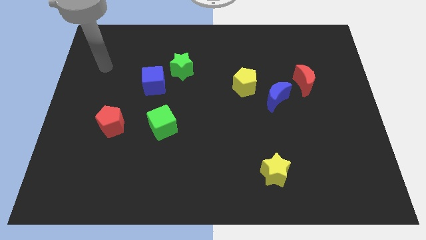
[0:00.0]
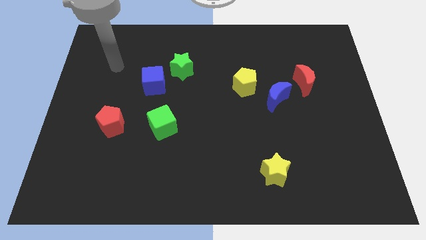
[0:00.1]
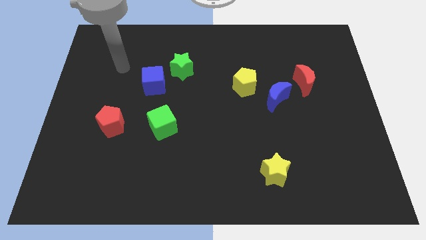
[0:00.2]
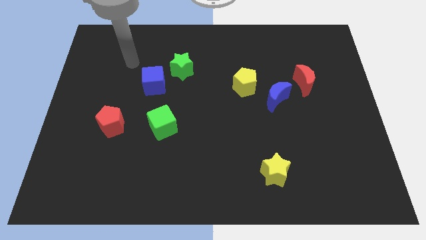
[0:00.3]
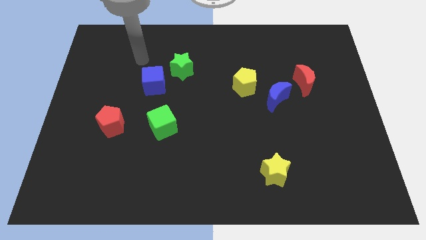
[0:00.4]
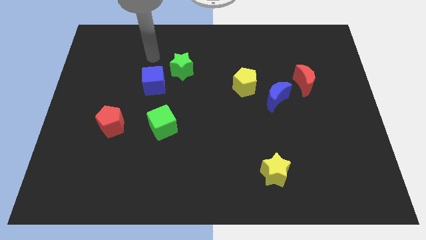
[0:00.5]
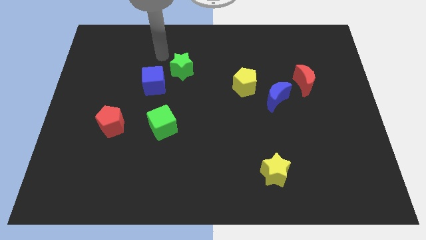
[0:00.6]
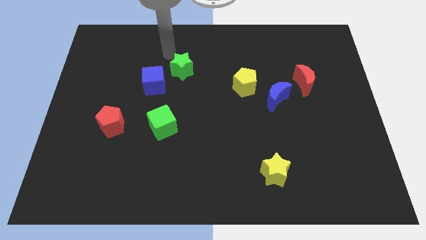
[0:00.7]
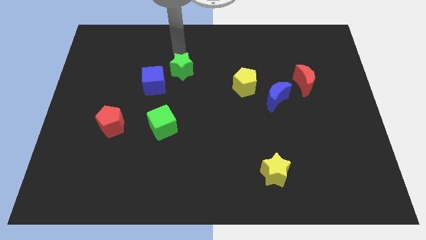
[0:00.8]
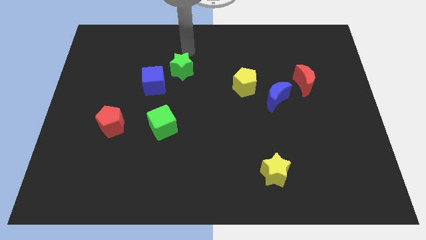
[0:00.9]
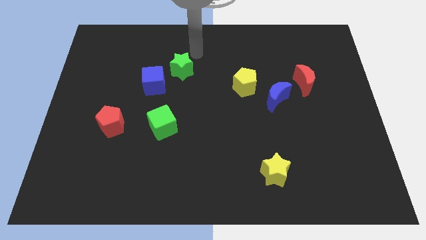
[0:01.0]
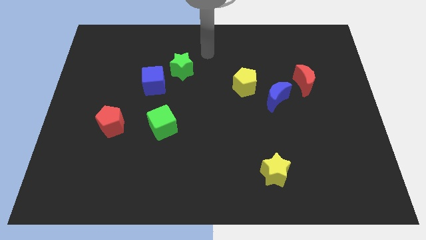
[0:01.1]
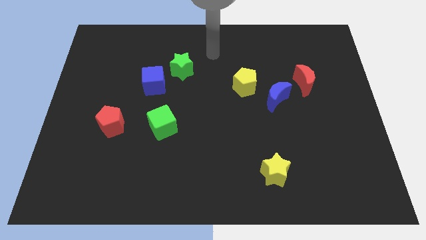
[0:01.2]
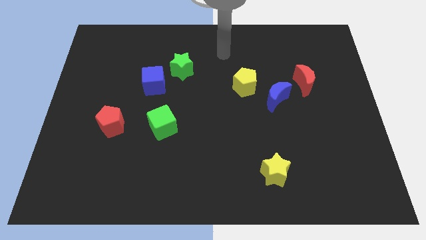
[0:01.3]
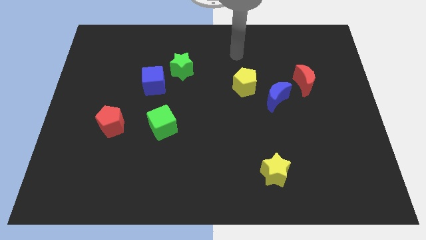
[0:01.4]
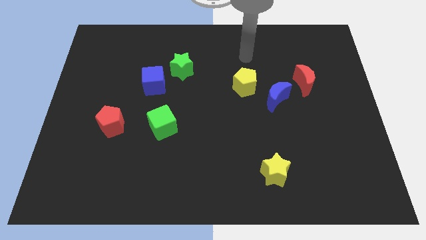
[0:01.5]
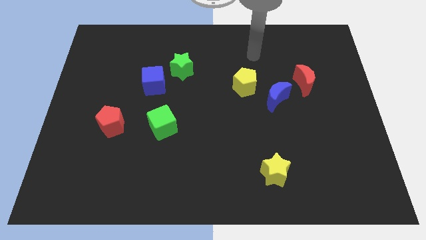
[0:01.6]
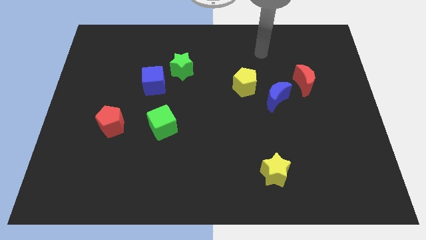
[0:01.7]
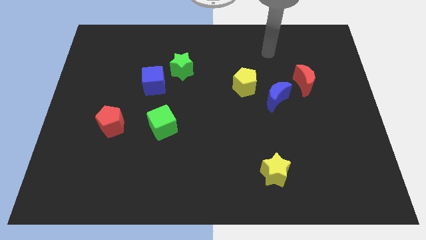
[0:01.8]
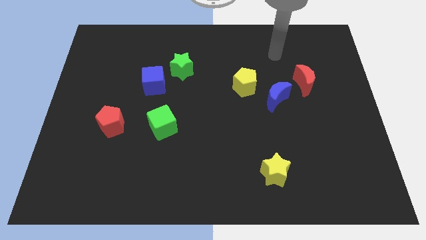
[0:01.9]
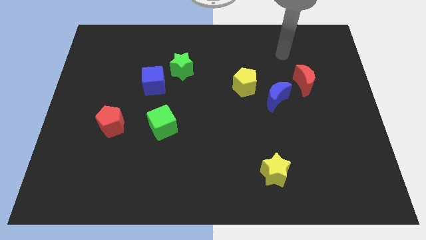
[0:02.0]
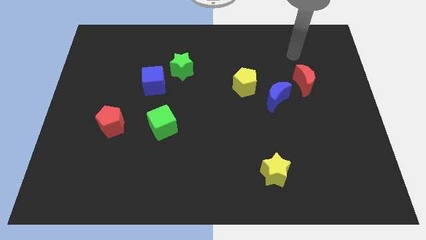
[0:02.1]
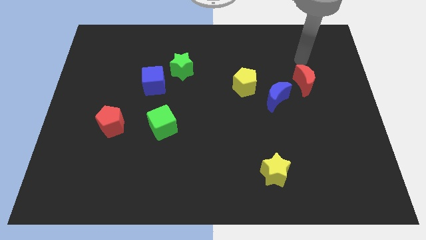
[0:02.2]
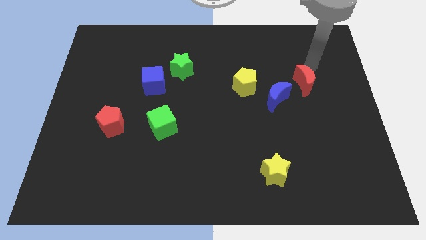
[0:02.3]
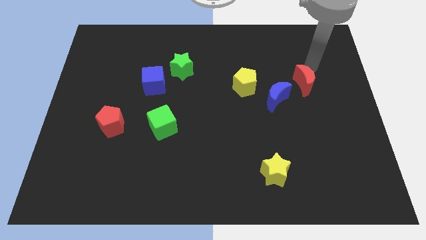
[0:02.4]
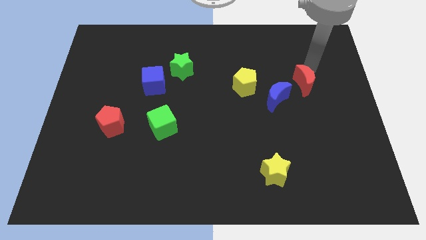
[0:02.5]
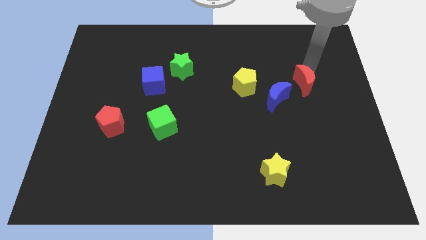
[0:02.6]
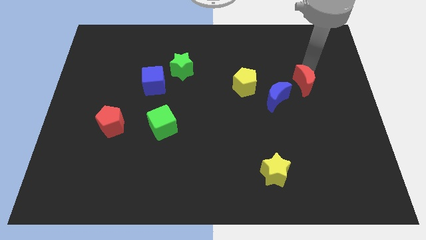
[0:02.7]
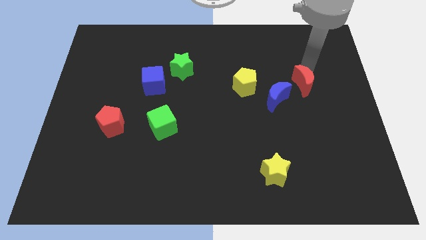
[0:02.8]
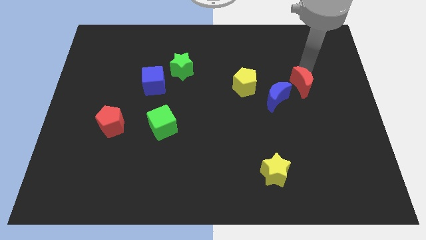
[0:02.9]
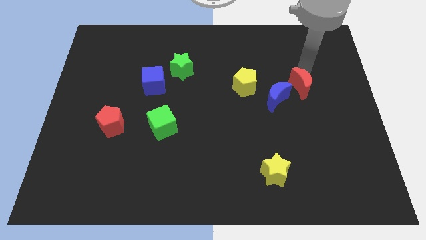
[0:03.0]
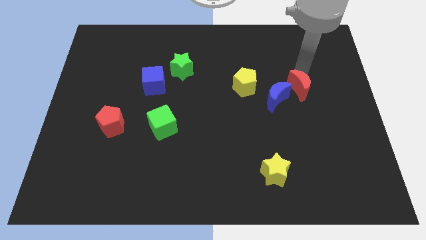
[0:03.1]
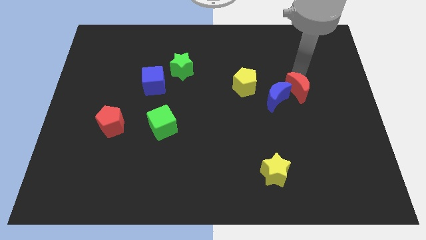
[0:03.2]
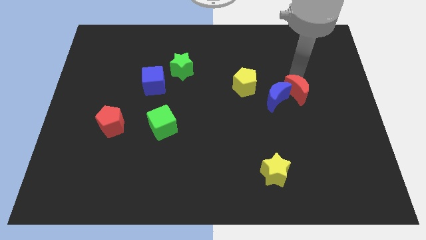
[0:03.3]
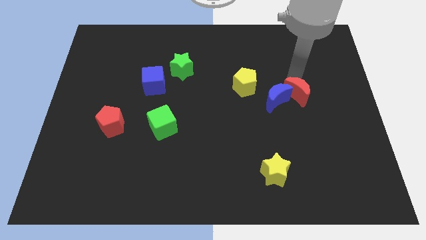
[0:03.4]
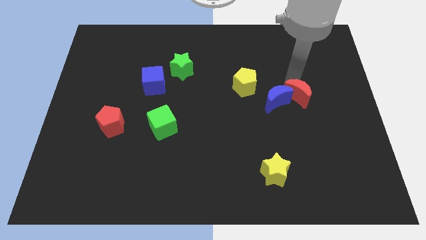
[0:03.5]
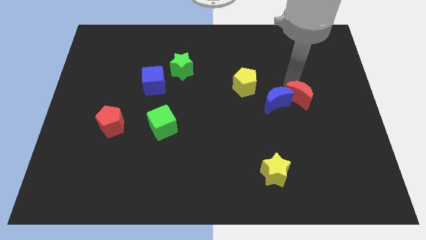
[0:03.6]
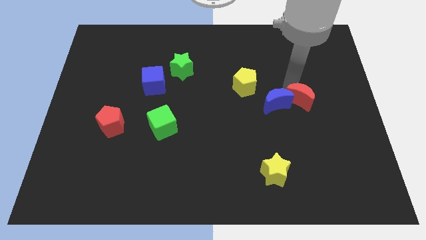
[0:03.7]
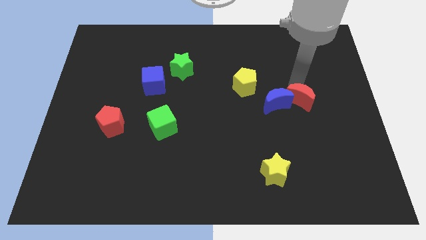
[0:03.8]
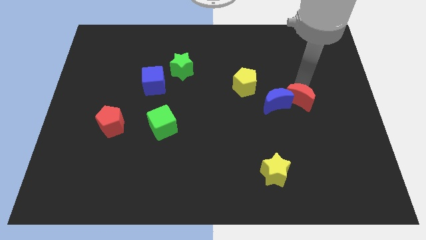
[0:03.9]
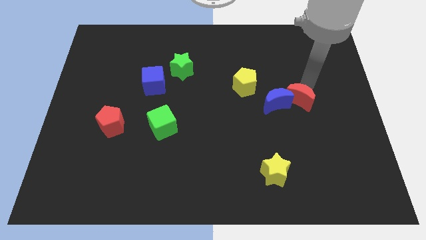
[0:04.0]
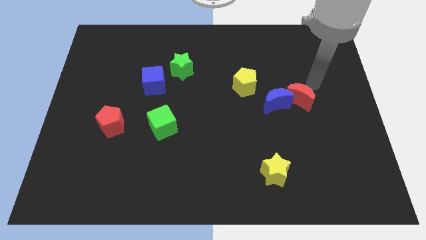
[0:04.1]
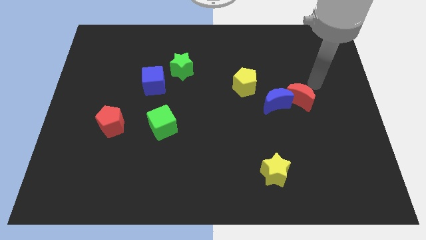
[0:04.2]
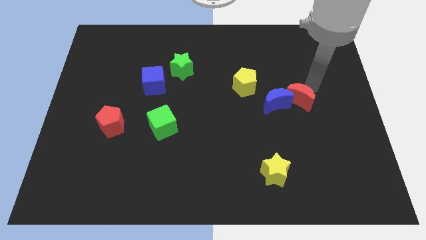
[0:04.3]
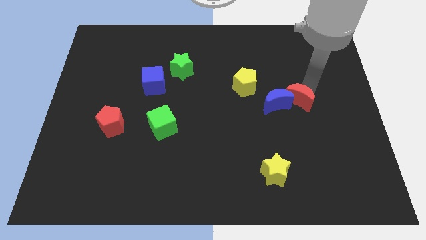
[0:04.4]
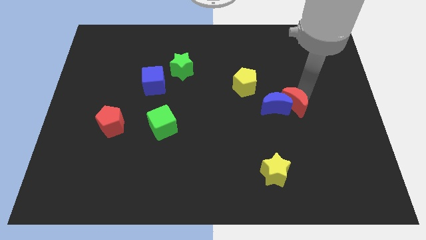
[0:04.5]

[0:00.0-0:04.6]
slightly push the red moon down and left

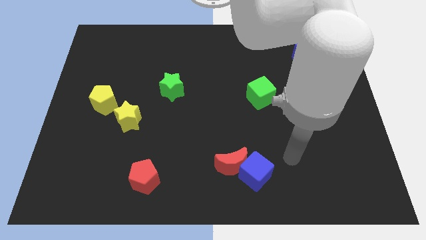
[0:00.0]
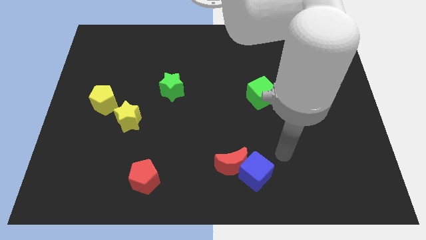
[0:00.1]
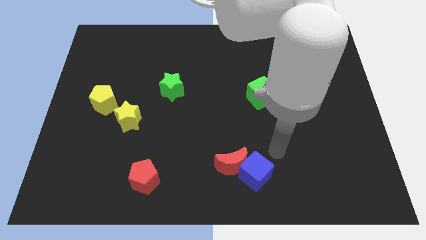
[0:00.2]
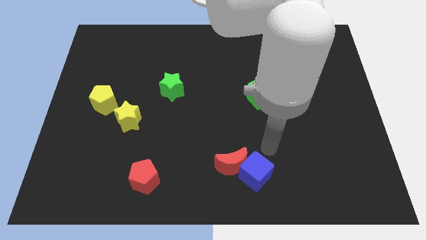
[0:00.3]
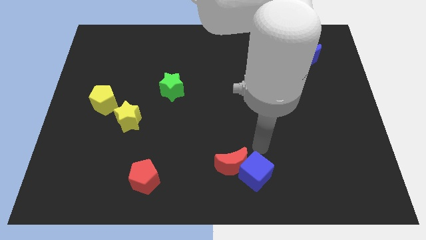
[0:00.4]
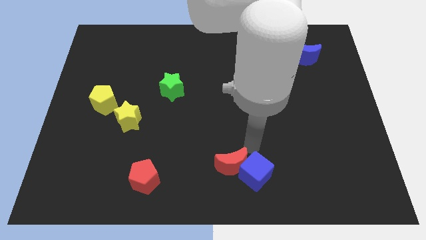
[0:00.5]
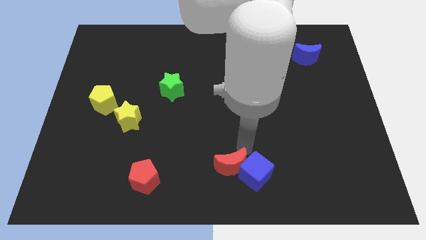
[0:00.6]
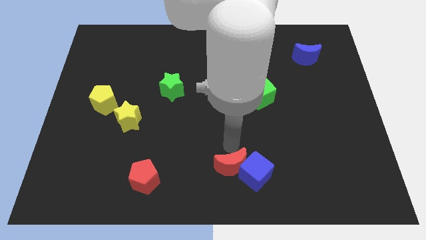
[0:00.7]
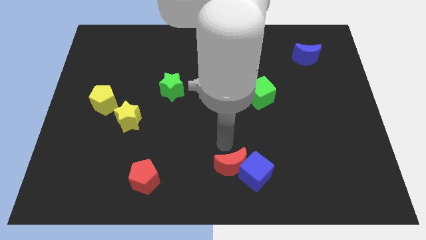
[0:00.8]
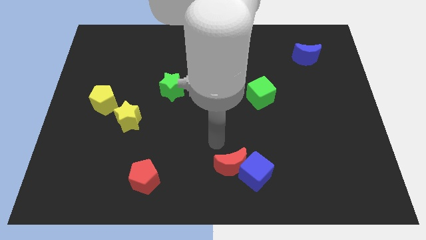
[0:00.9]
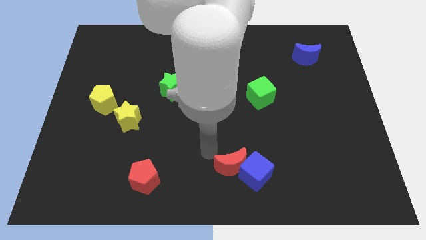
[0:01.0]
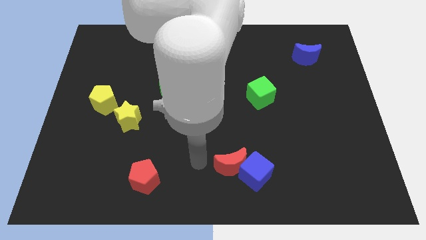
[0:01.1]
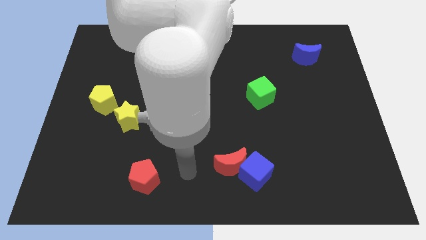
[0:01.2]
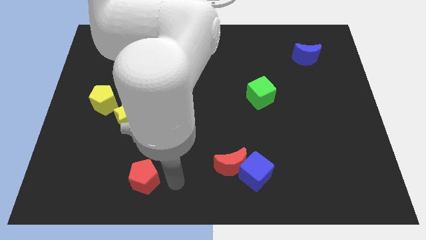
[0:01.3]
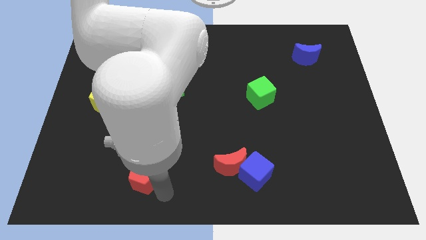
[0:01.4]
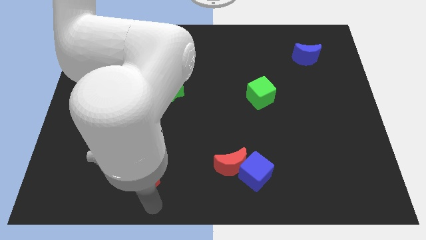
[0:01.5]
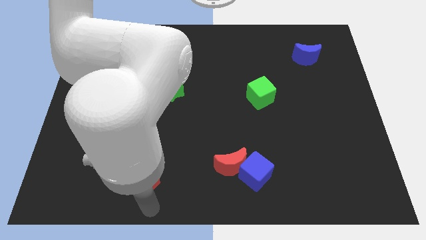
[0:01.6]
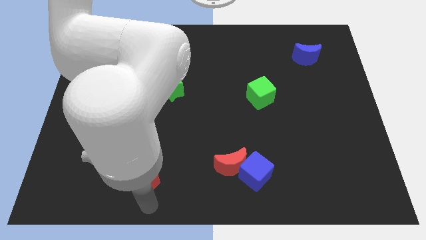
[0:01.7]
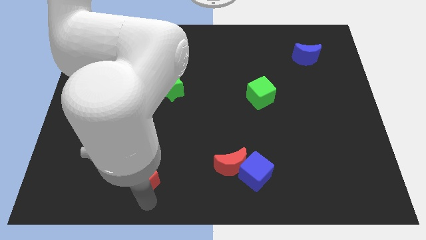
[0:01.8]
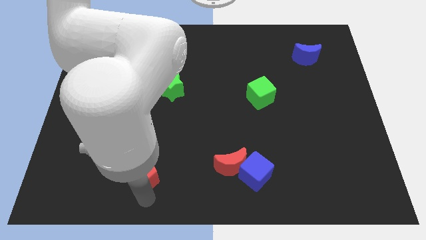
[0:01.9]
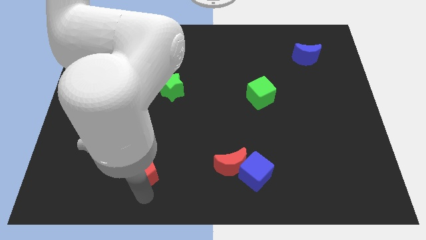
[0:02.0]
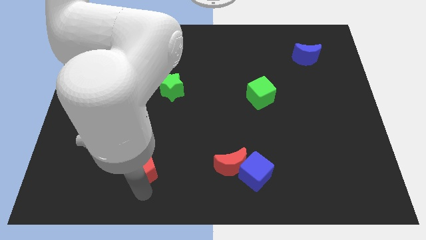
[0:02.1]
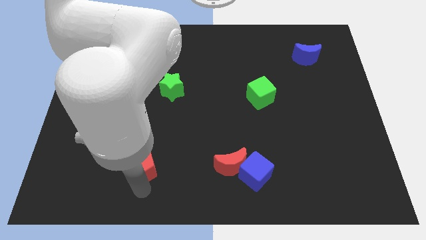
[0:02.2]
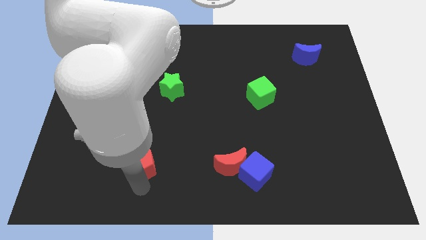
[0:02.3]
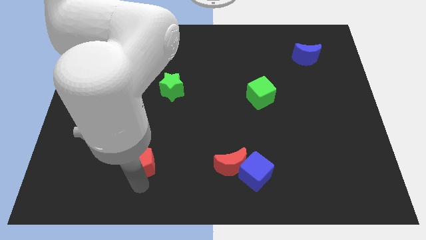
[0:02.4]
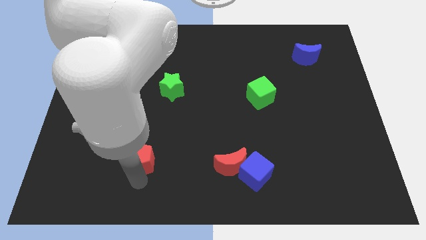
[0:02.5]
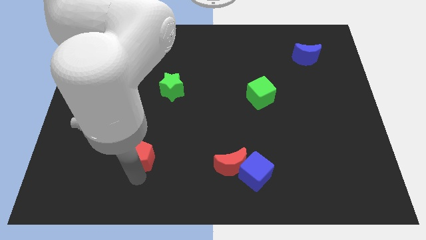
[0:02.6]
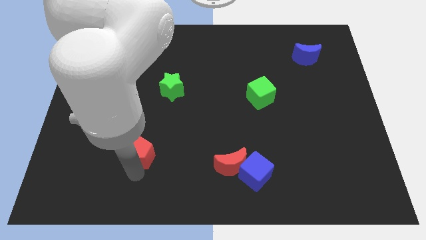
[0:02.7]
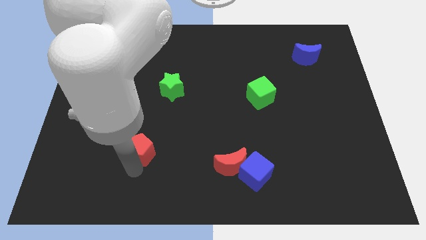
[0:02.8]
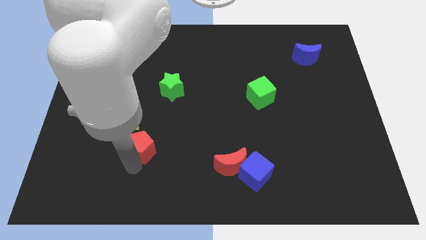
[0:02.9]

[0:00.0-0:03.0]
move the red pentagon somewhat upwards
